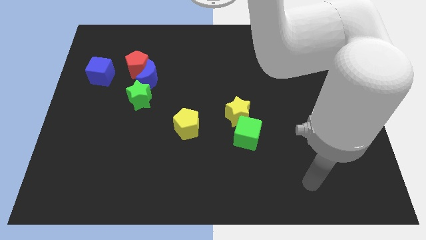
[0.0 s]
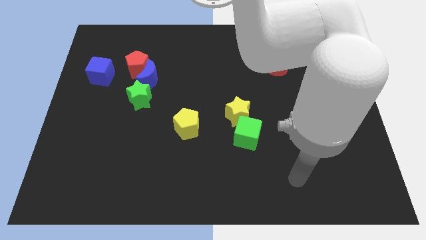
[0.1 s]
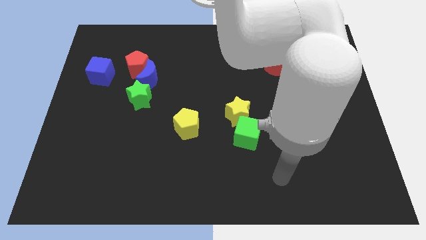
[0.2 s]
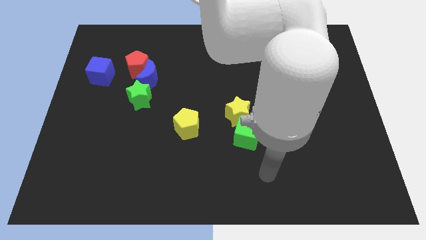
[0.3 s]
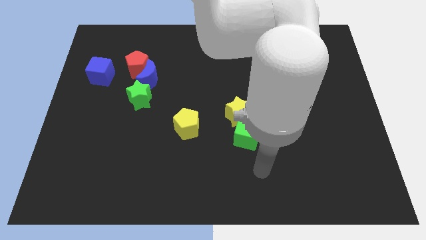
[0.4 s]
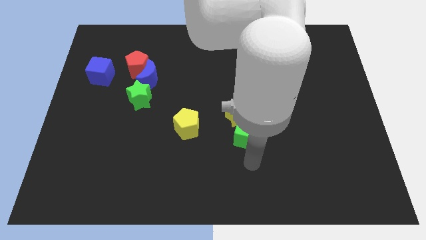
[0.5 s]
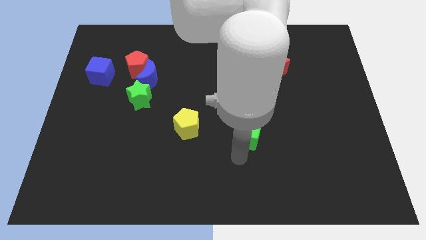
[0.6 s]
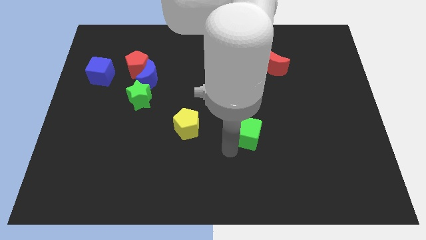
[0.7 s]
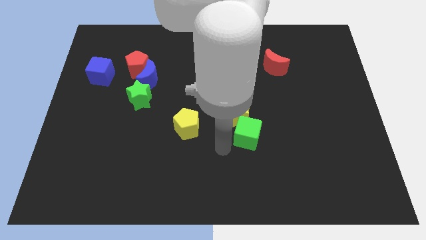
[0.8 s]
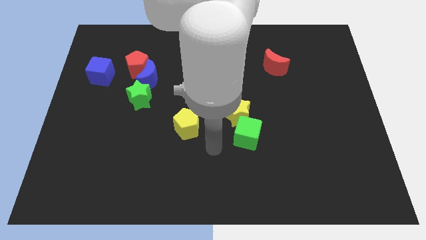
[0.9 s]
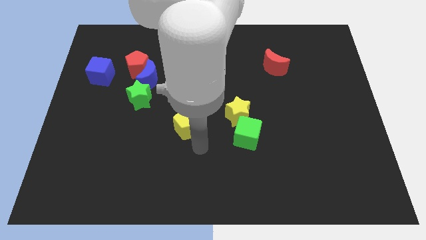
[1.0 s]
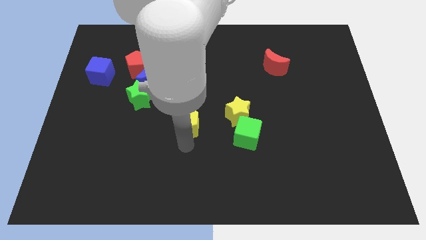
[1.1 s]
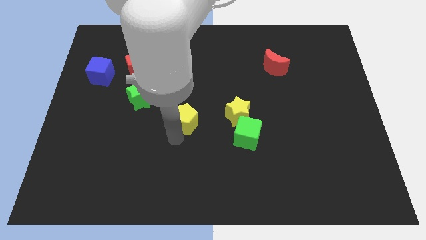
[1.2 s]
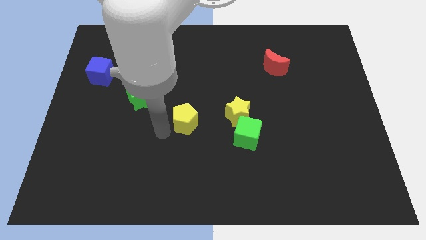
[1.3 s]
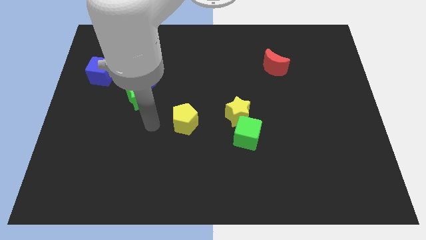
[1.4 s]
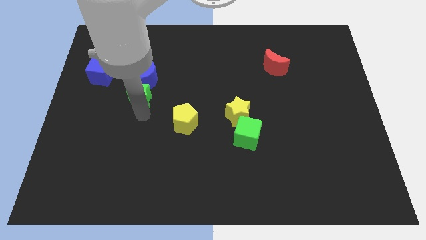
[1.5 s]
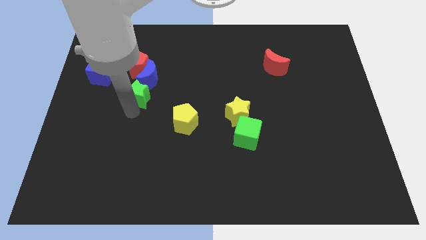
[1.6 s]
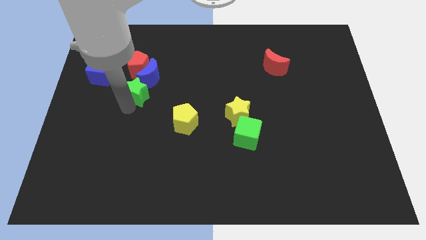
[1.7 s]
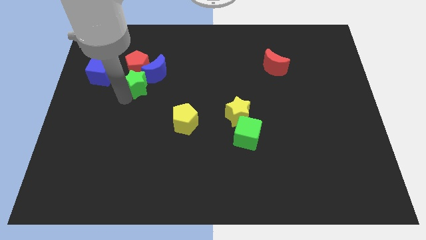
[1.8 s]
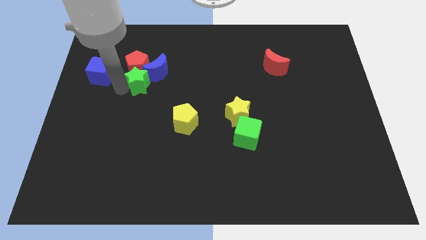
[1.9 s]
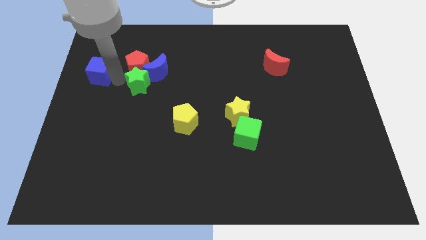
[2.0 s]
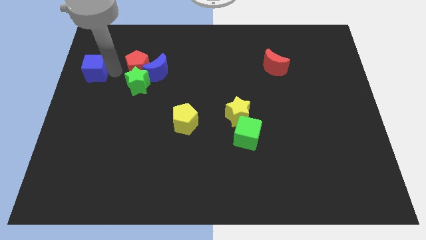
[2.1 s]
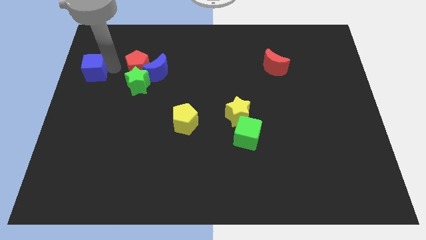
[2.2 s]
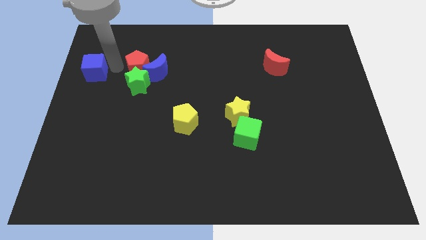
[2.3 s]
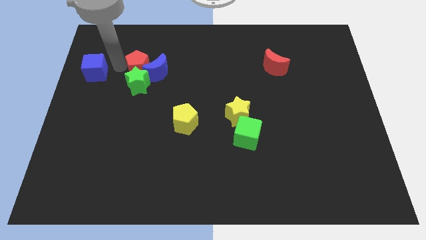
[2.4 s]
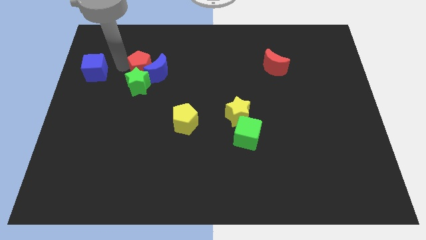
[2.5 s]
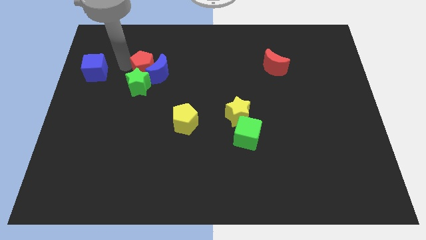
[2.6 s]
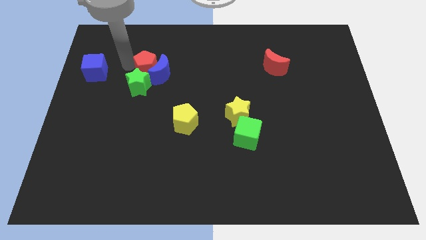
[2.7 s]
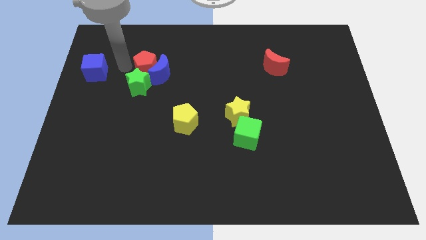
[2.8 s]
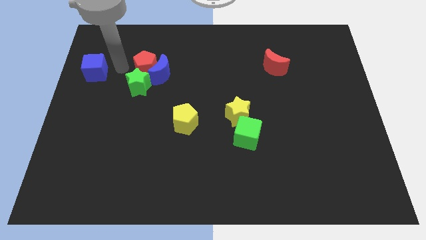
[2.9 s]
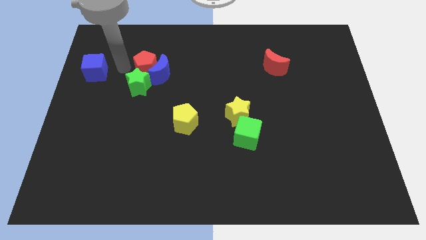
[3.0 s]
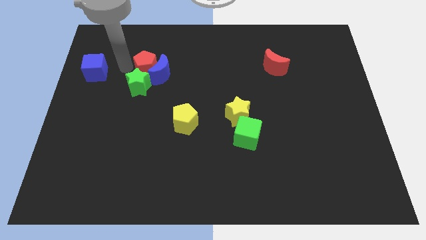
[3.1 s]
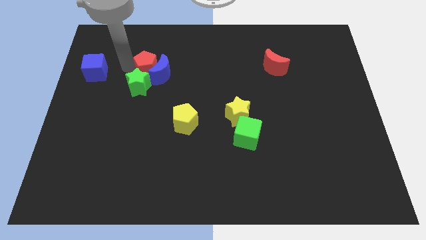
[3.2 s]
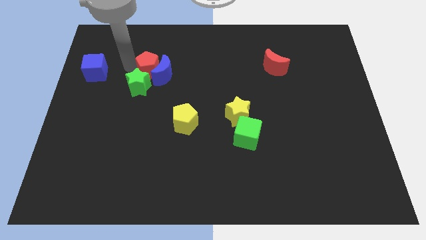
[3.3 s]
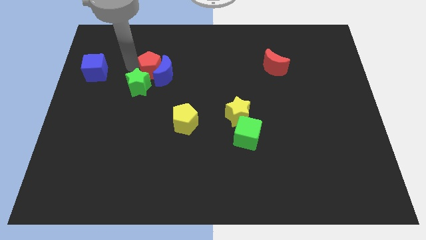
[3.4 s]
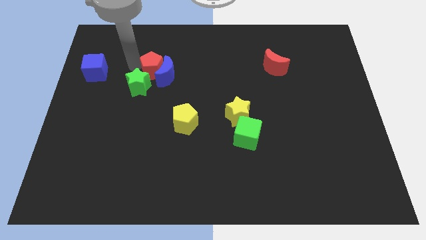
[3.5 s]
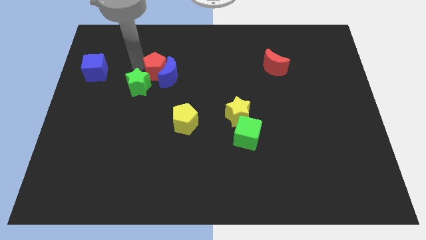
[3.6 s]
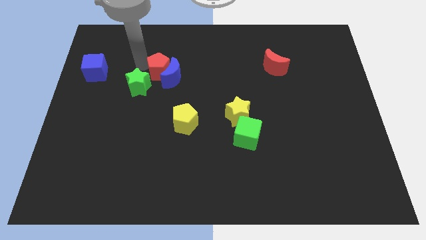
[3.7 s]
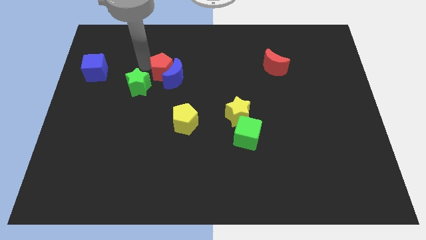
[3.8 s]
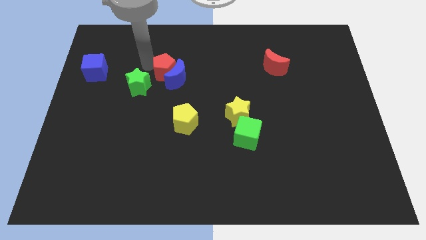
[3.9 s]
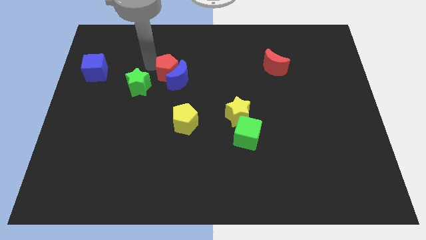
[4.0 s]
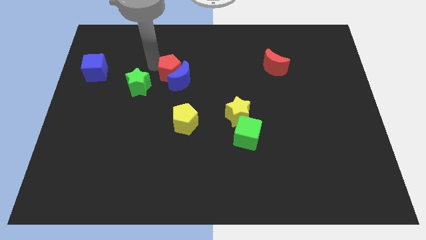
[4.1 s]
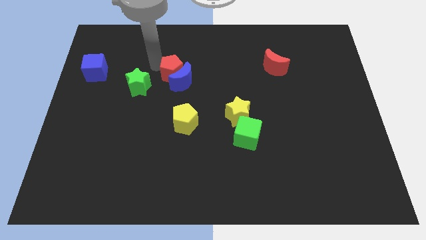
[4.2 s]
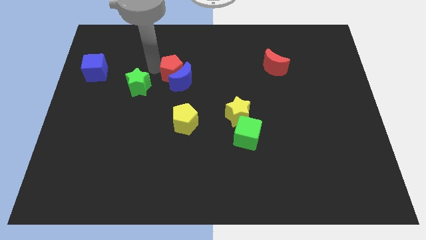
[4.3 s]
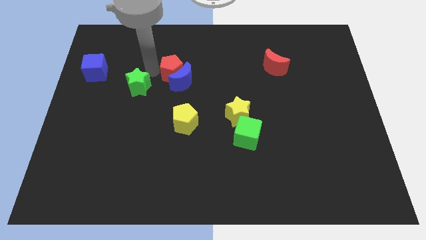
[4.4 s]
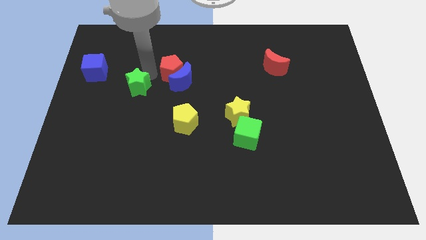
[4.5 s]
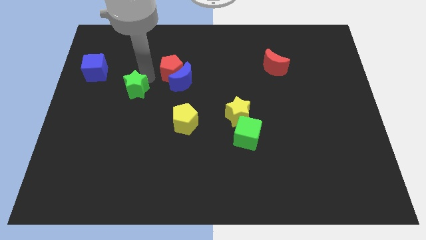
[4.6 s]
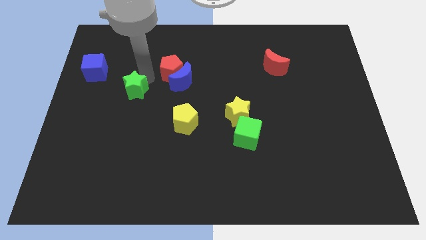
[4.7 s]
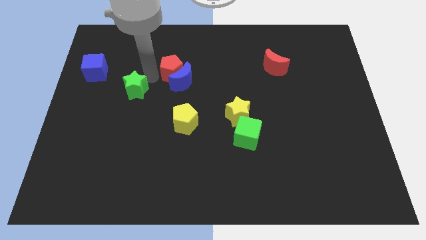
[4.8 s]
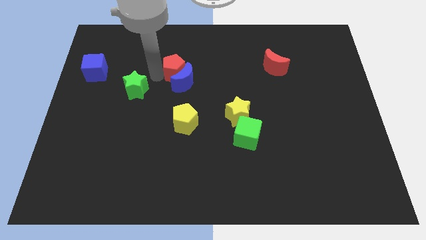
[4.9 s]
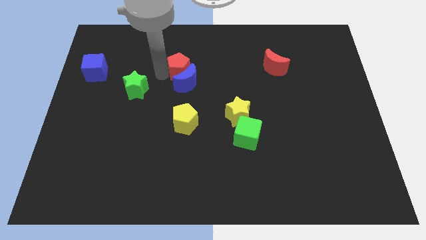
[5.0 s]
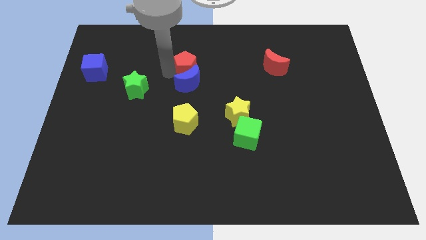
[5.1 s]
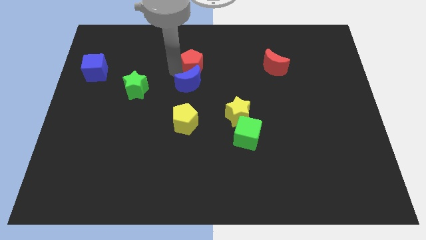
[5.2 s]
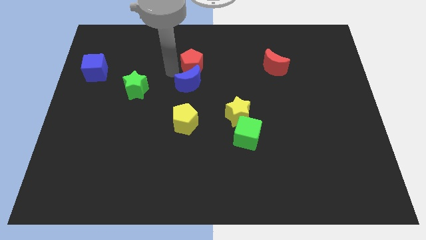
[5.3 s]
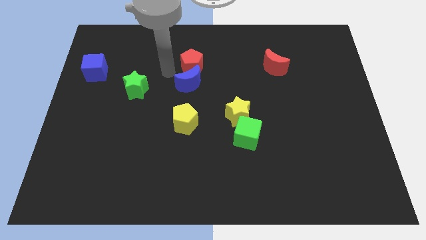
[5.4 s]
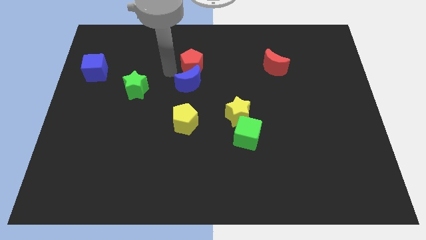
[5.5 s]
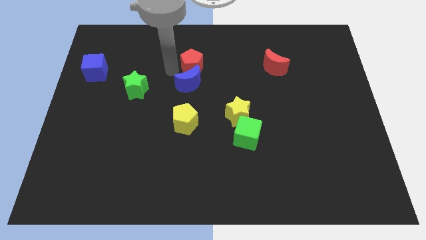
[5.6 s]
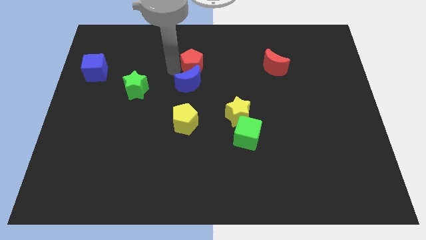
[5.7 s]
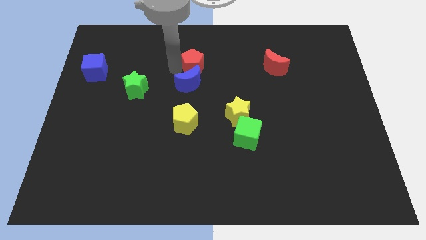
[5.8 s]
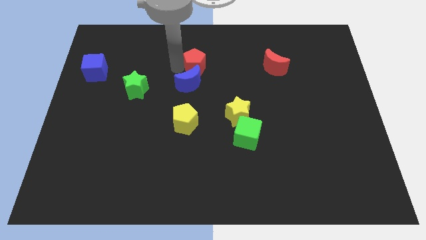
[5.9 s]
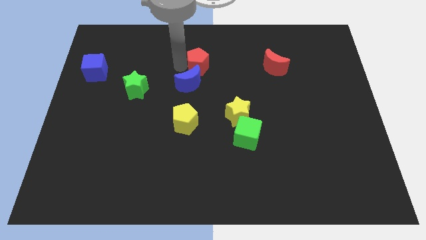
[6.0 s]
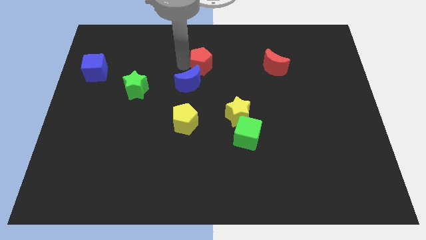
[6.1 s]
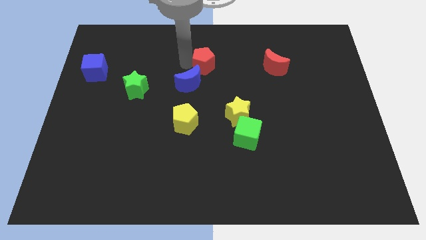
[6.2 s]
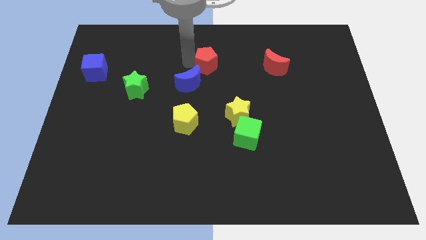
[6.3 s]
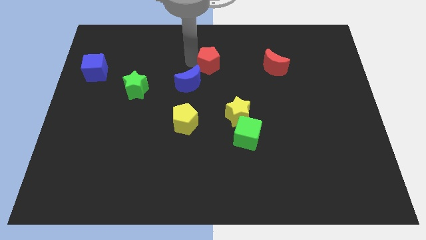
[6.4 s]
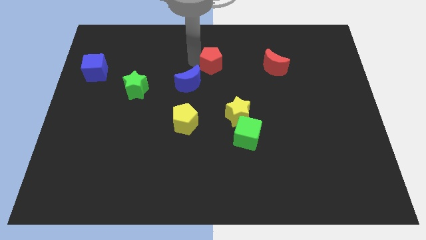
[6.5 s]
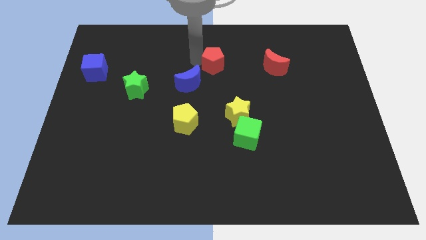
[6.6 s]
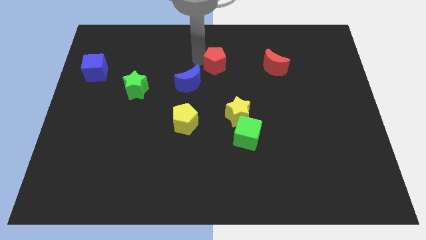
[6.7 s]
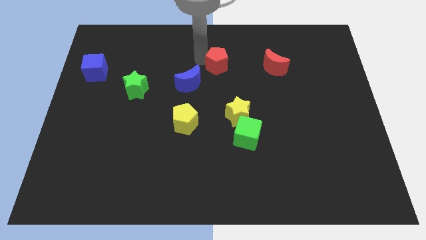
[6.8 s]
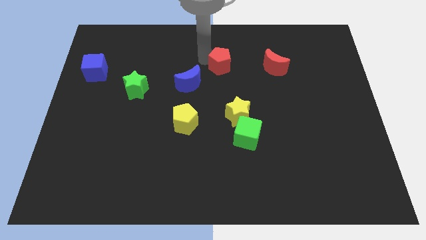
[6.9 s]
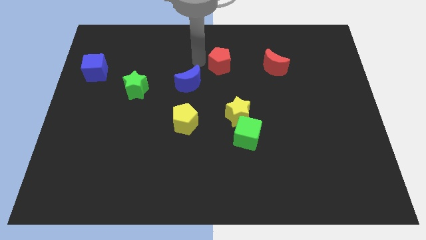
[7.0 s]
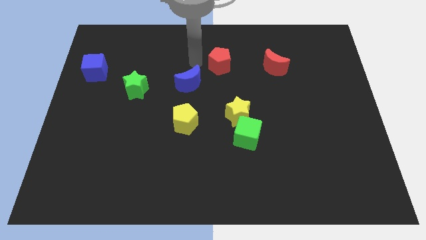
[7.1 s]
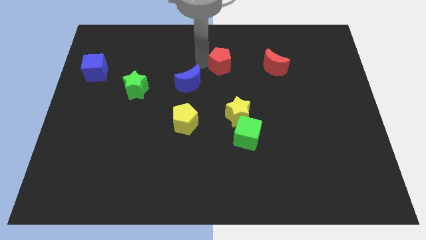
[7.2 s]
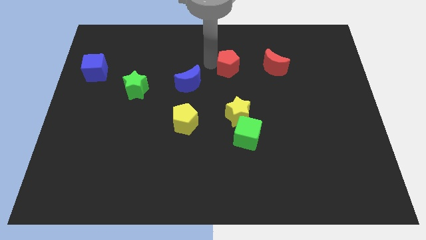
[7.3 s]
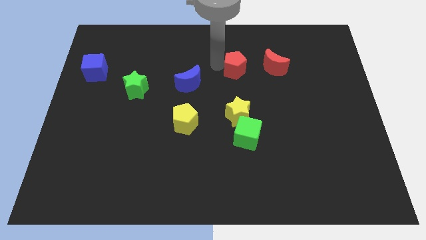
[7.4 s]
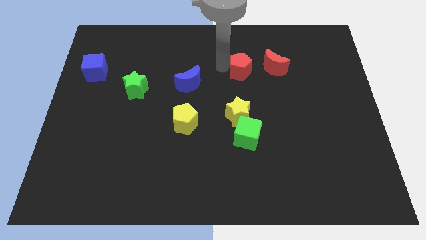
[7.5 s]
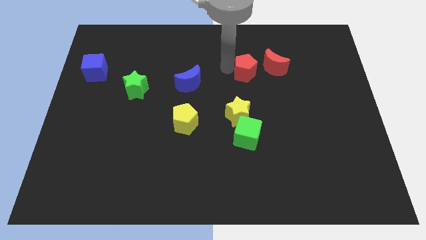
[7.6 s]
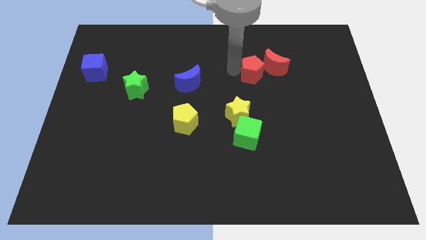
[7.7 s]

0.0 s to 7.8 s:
push the red pentagon next to the red moon
